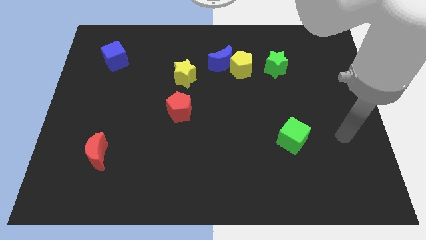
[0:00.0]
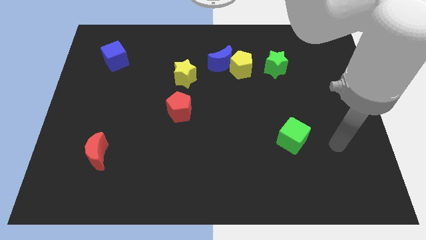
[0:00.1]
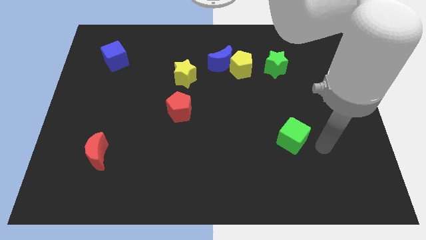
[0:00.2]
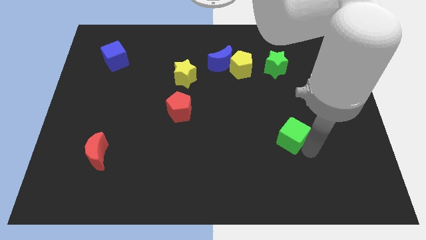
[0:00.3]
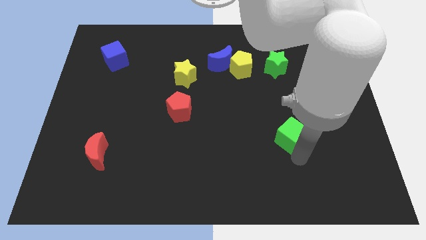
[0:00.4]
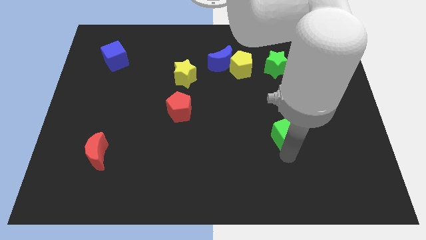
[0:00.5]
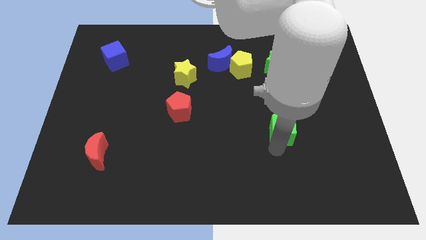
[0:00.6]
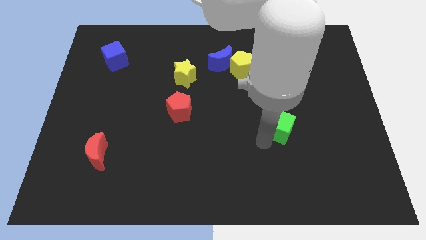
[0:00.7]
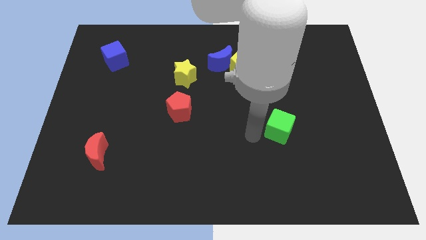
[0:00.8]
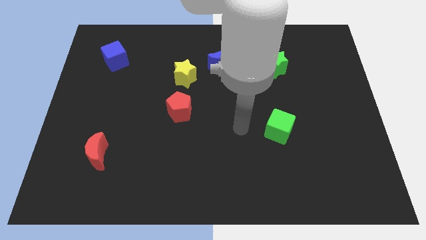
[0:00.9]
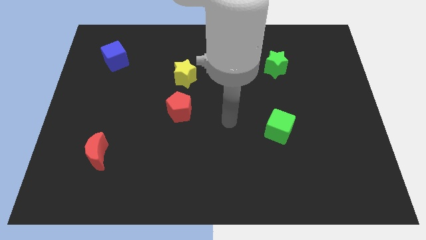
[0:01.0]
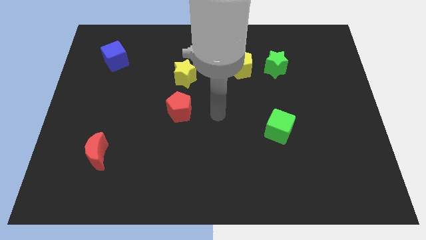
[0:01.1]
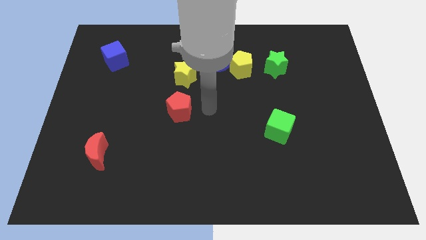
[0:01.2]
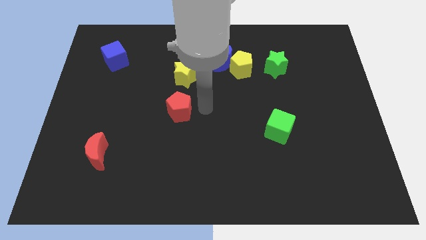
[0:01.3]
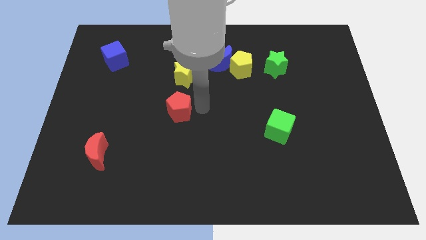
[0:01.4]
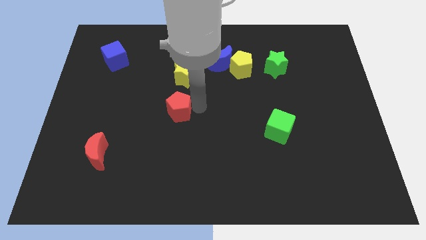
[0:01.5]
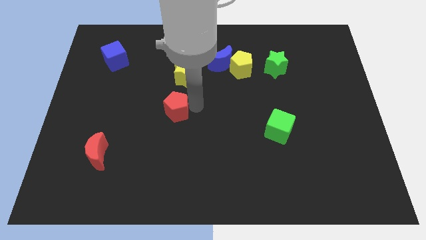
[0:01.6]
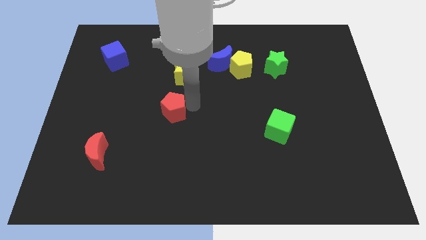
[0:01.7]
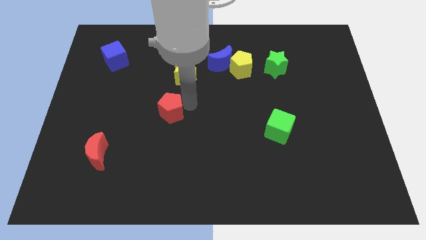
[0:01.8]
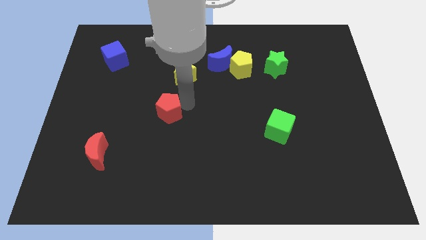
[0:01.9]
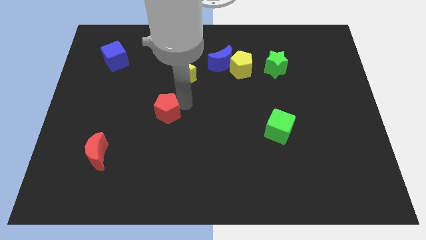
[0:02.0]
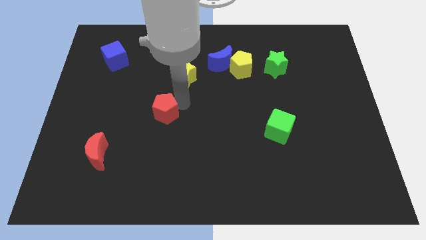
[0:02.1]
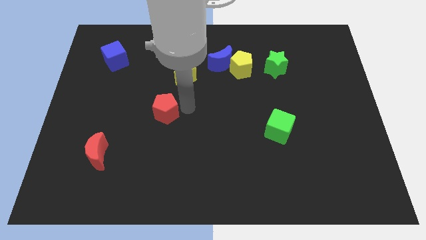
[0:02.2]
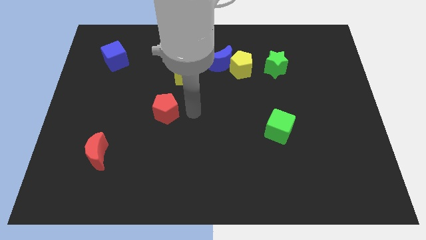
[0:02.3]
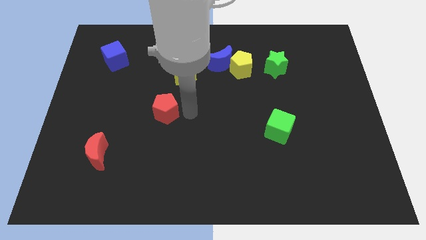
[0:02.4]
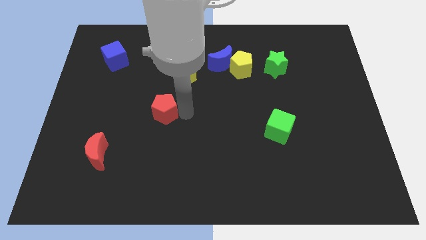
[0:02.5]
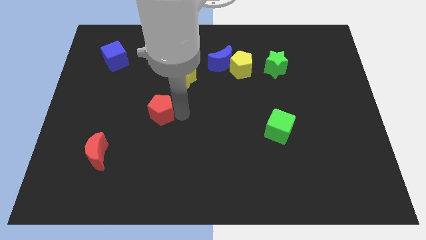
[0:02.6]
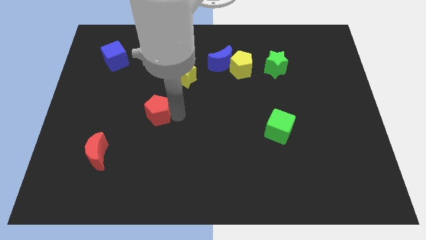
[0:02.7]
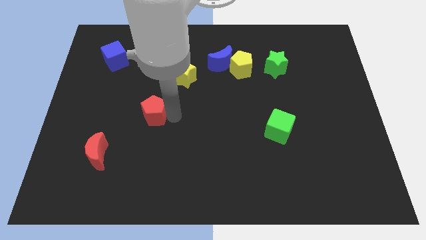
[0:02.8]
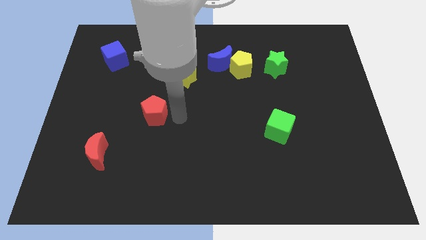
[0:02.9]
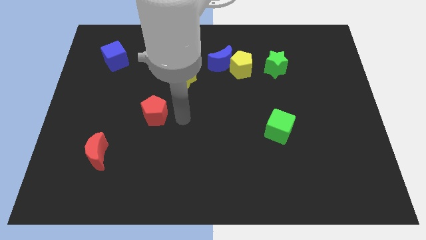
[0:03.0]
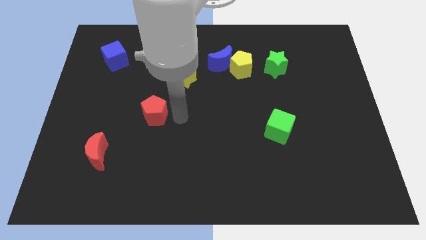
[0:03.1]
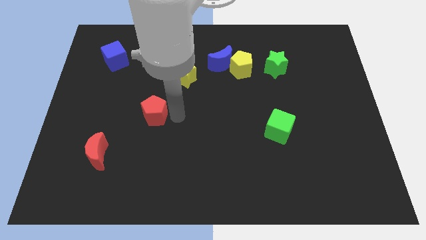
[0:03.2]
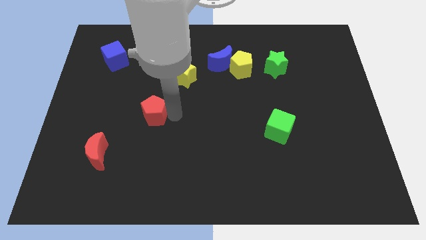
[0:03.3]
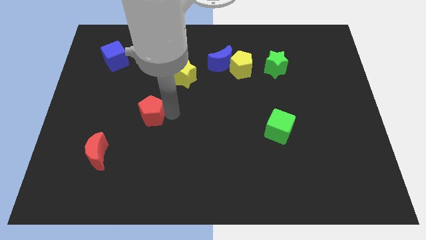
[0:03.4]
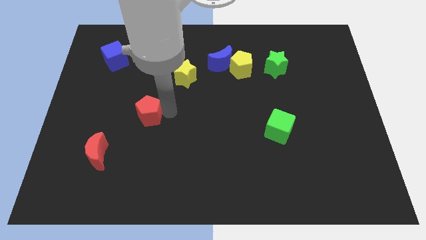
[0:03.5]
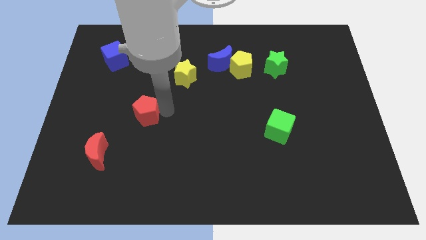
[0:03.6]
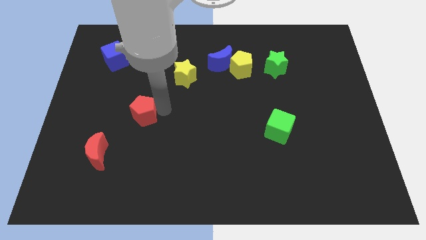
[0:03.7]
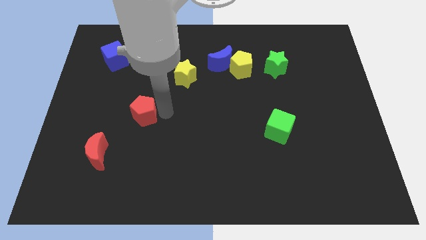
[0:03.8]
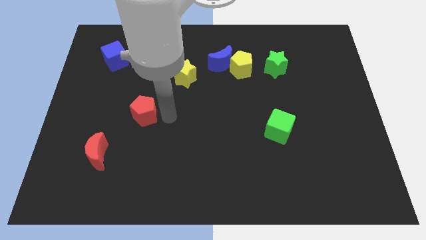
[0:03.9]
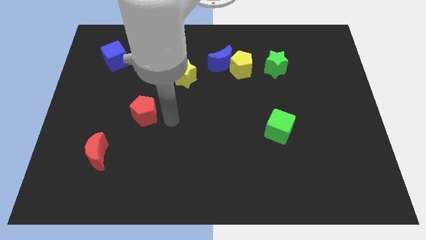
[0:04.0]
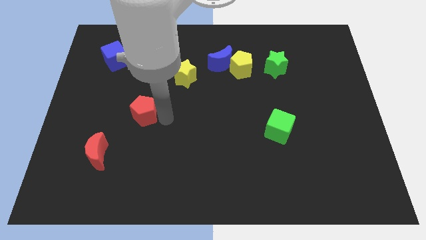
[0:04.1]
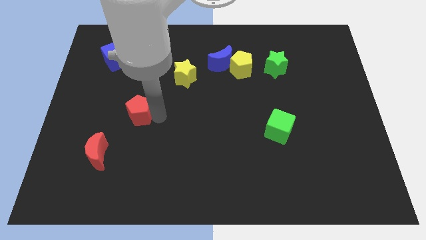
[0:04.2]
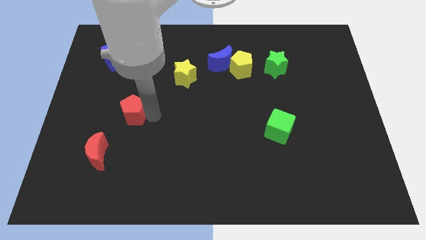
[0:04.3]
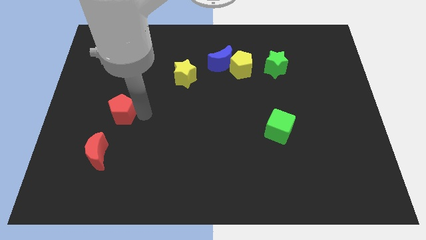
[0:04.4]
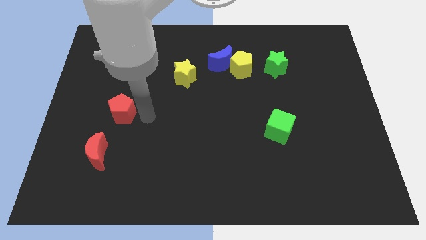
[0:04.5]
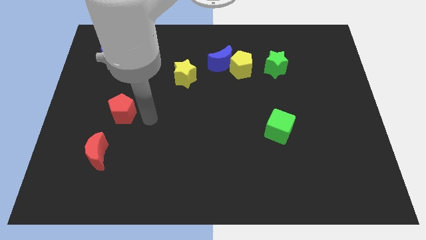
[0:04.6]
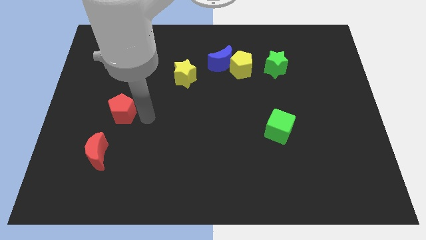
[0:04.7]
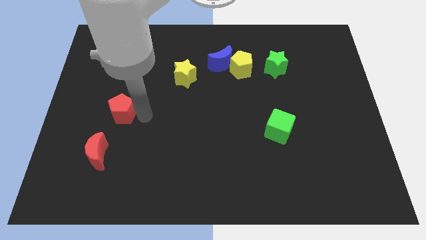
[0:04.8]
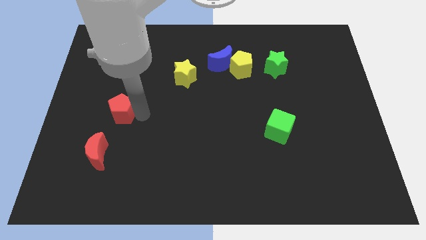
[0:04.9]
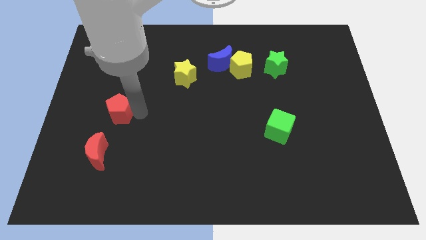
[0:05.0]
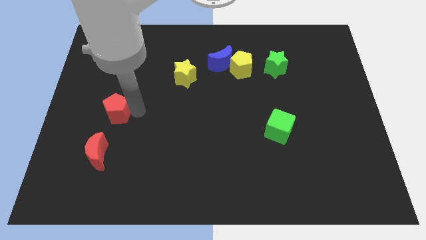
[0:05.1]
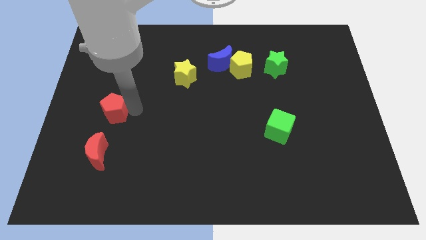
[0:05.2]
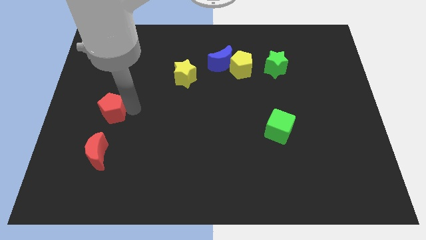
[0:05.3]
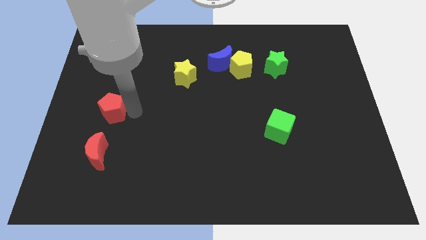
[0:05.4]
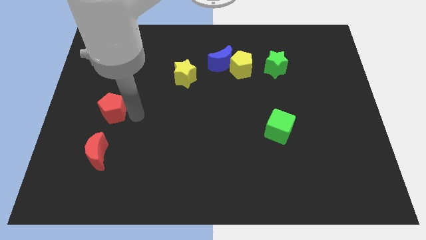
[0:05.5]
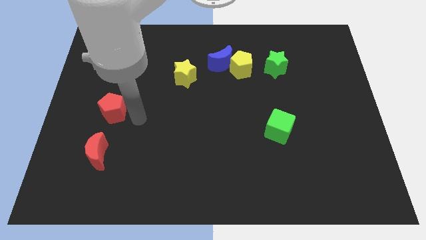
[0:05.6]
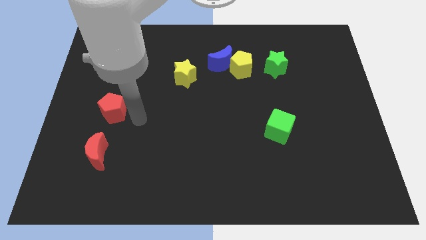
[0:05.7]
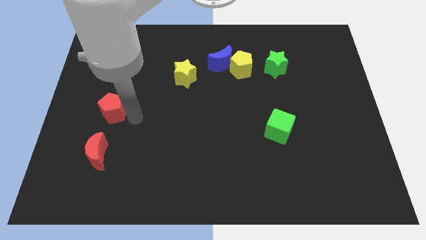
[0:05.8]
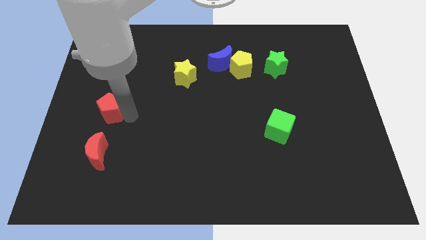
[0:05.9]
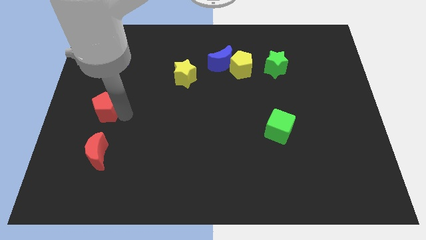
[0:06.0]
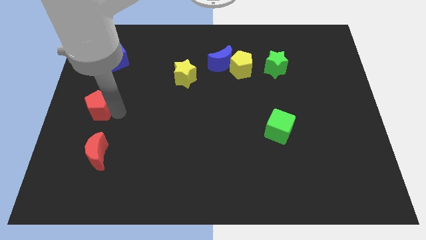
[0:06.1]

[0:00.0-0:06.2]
slide the red pentagon to the center left
